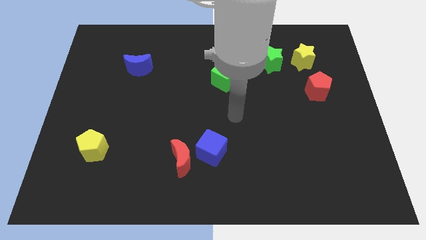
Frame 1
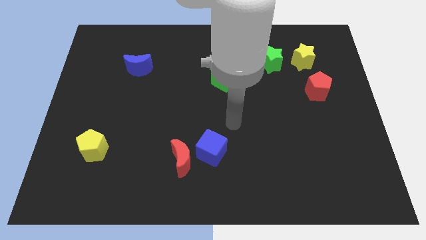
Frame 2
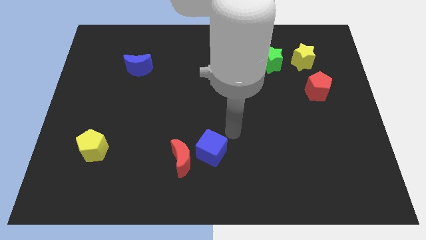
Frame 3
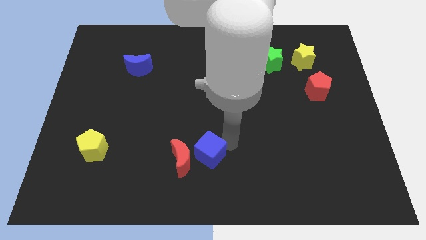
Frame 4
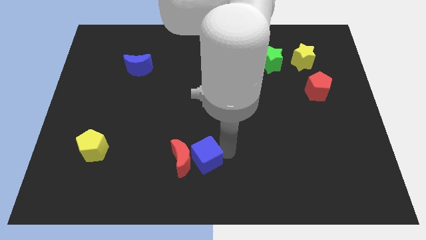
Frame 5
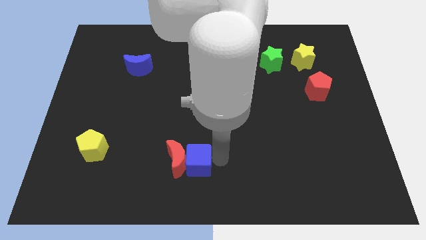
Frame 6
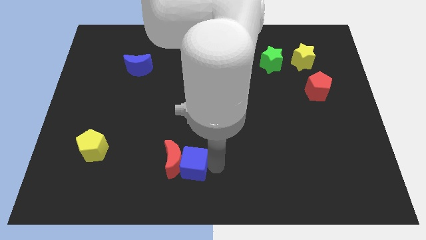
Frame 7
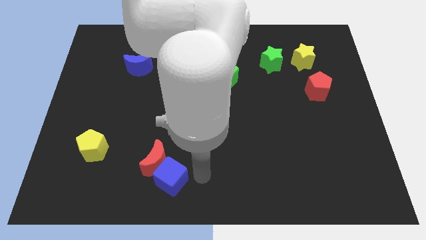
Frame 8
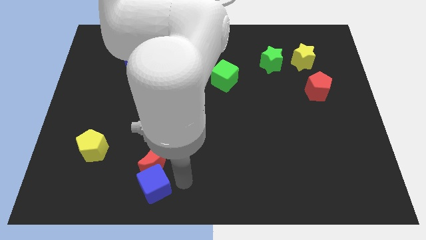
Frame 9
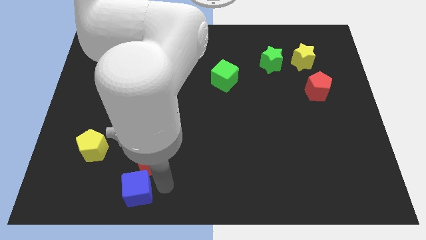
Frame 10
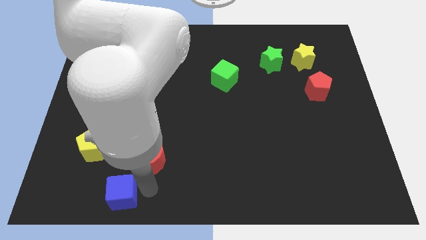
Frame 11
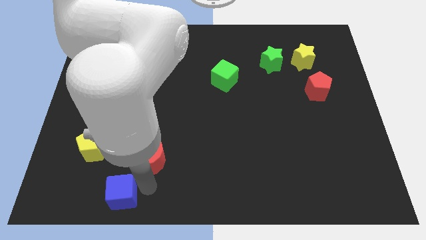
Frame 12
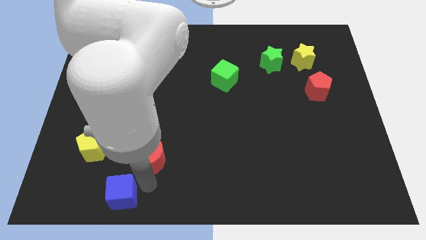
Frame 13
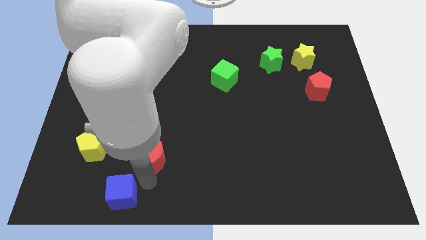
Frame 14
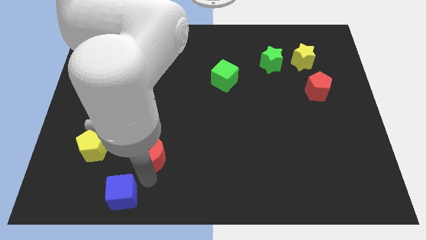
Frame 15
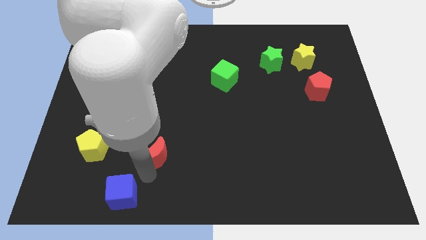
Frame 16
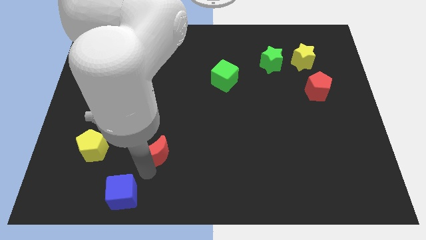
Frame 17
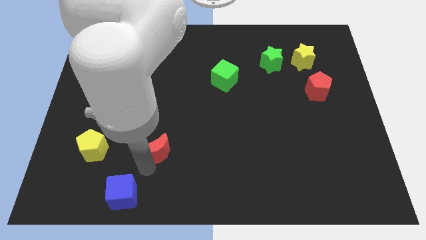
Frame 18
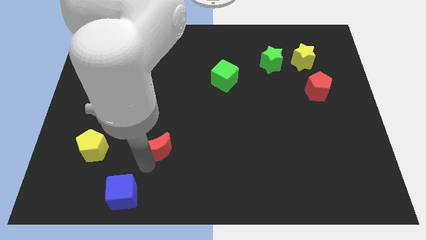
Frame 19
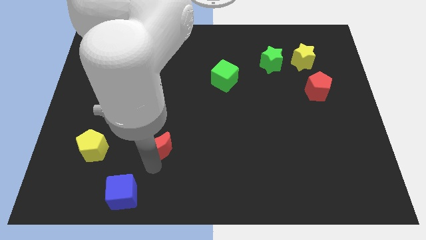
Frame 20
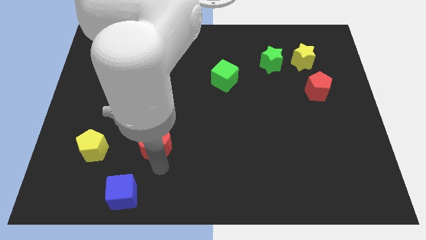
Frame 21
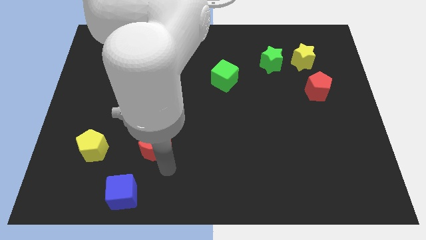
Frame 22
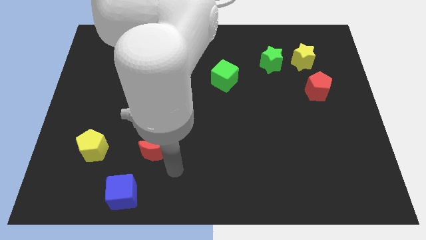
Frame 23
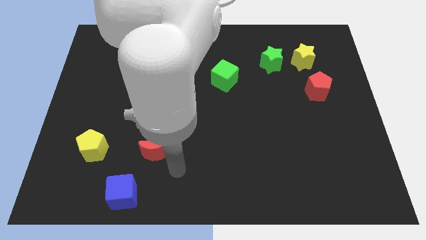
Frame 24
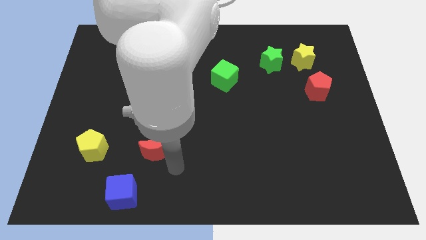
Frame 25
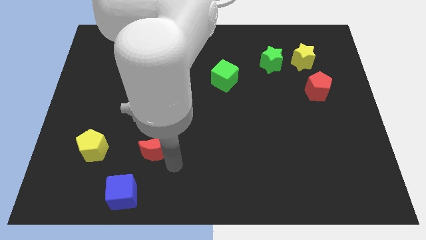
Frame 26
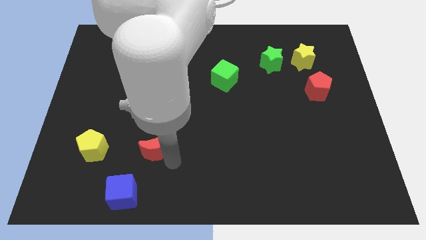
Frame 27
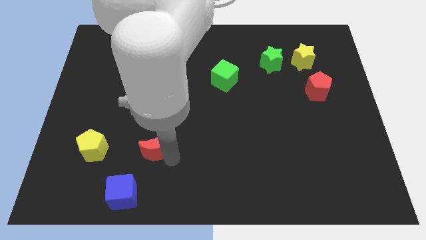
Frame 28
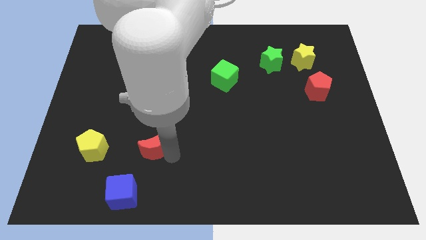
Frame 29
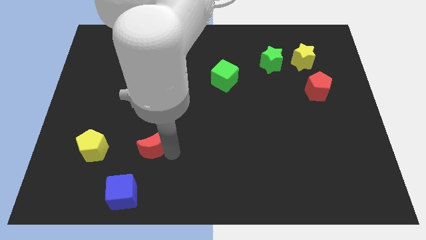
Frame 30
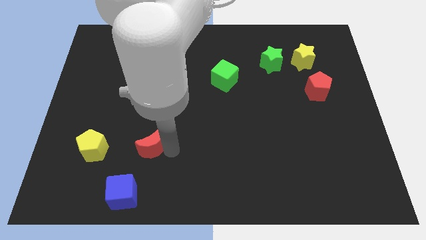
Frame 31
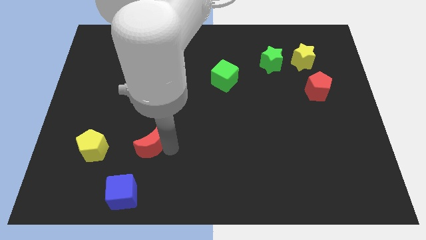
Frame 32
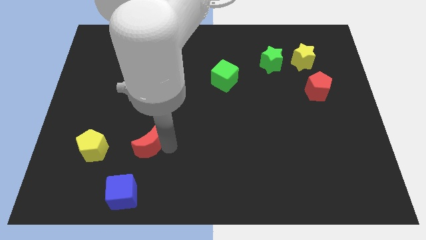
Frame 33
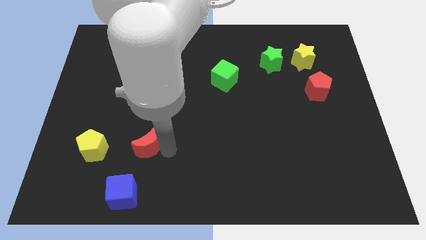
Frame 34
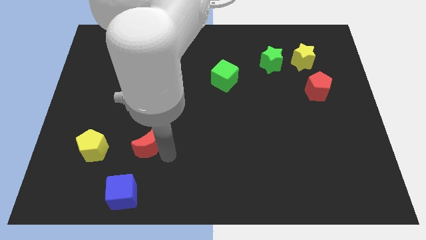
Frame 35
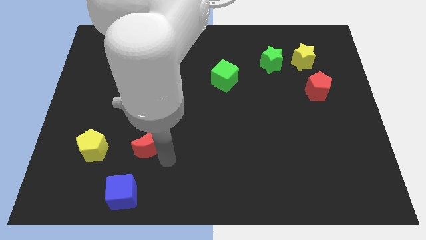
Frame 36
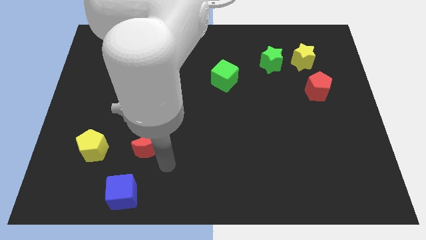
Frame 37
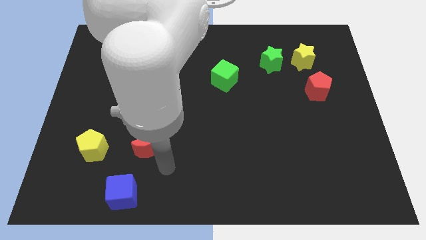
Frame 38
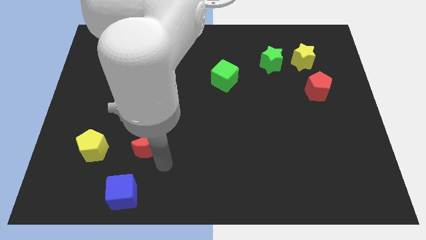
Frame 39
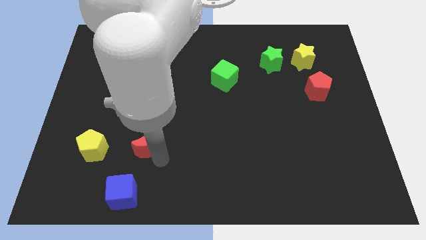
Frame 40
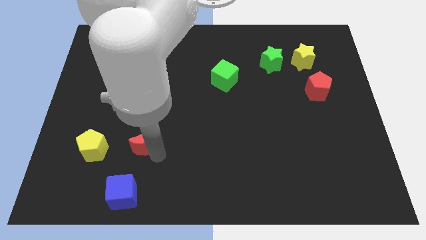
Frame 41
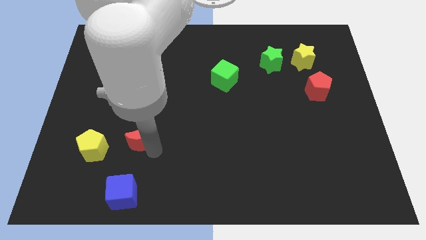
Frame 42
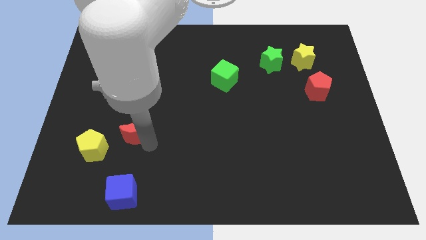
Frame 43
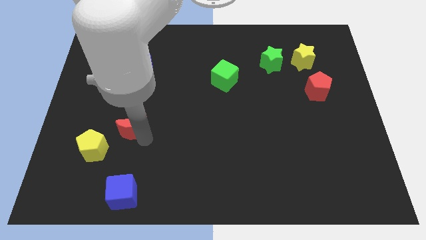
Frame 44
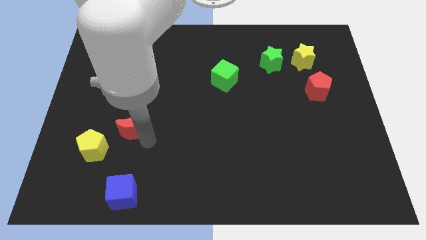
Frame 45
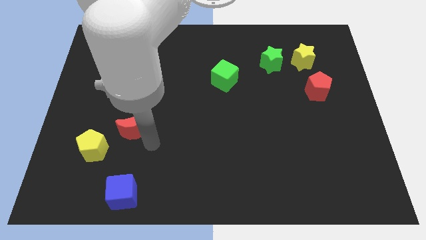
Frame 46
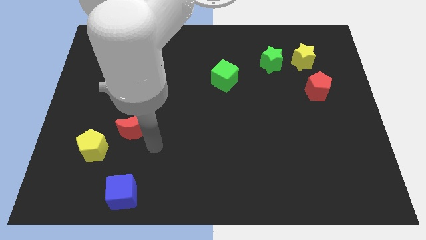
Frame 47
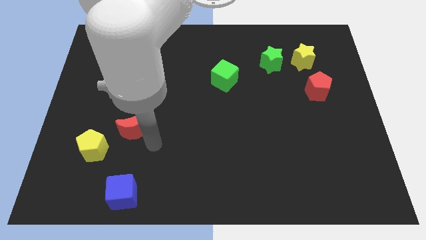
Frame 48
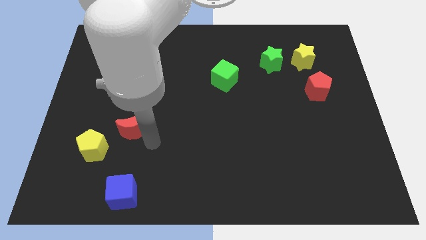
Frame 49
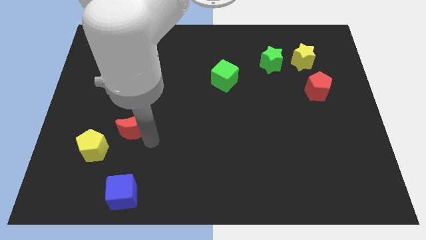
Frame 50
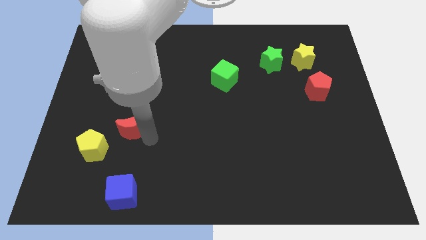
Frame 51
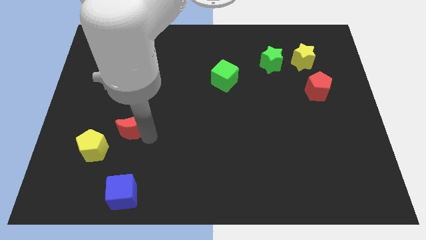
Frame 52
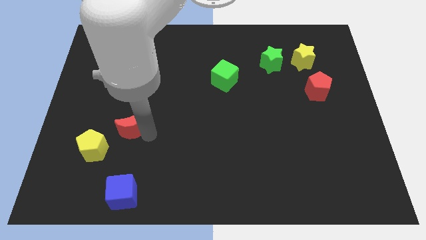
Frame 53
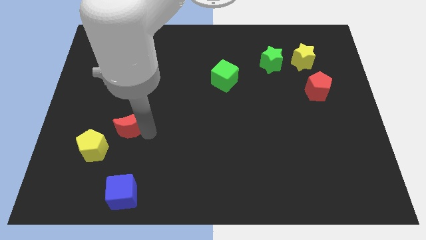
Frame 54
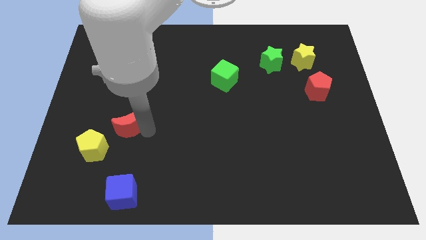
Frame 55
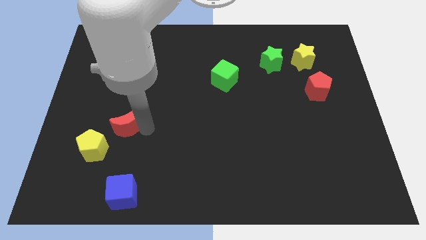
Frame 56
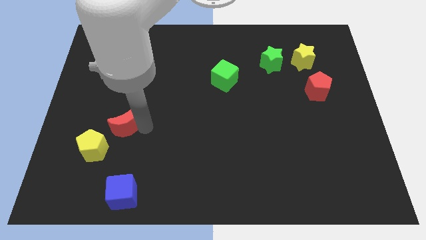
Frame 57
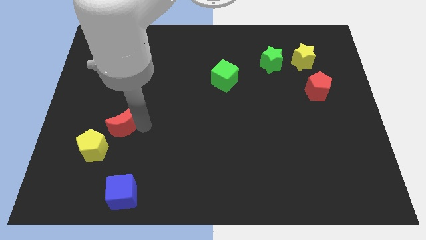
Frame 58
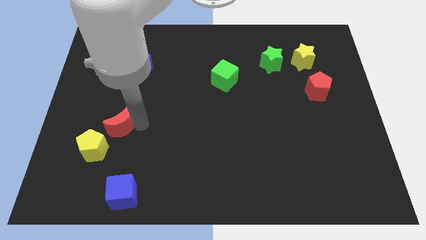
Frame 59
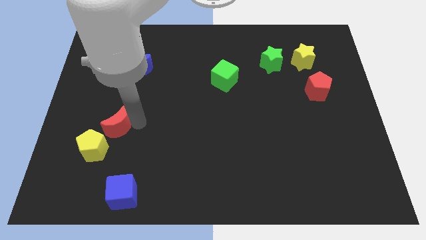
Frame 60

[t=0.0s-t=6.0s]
move the red moon to the top of the yellow pentagon

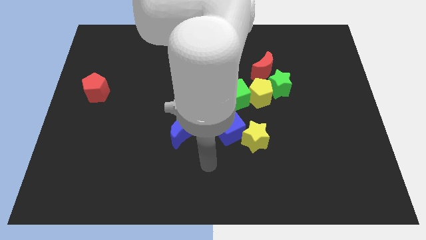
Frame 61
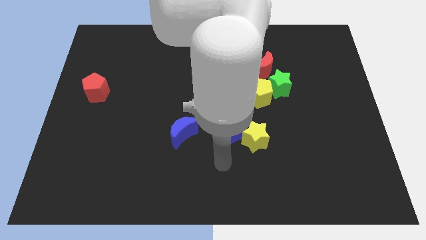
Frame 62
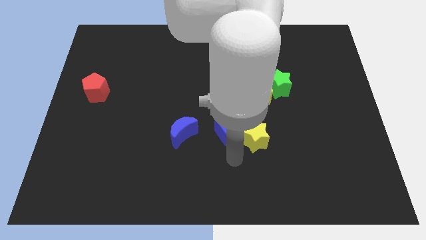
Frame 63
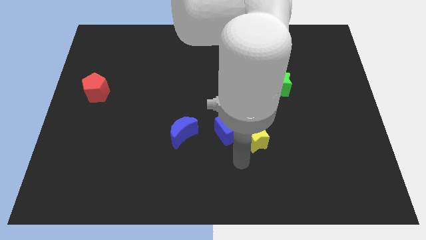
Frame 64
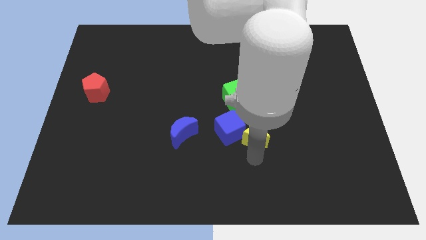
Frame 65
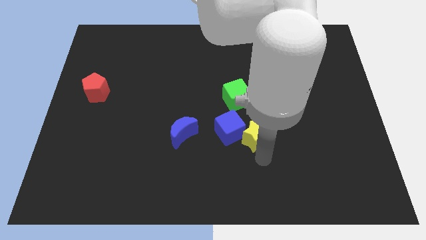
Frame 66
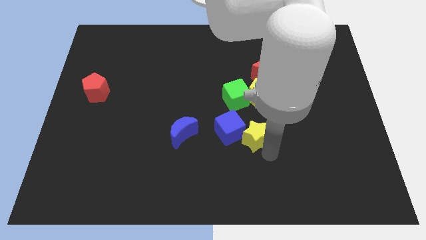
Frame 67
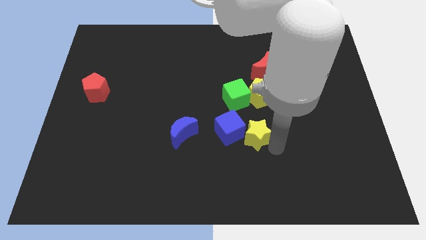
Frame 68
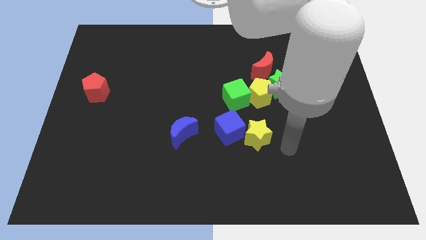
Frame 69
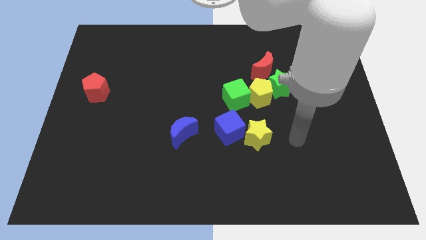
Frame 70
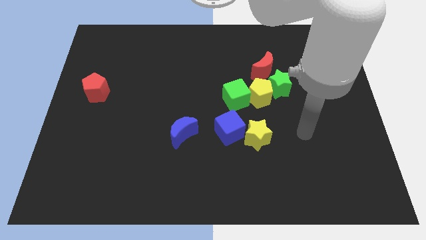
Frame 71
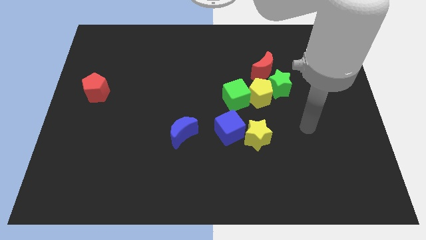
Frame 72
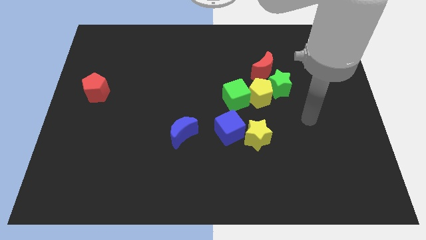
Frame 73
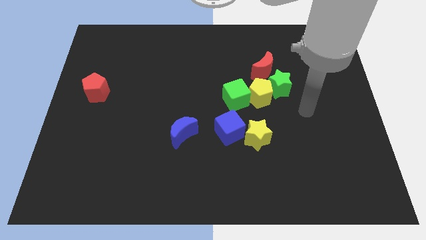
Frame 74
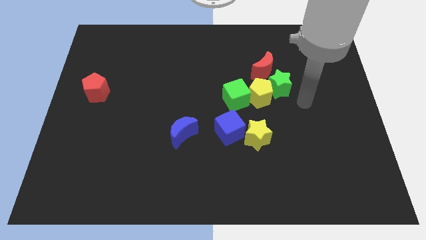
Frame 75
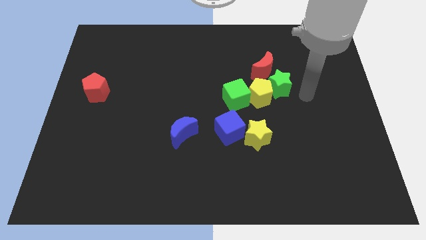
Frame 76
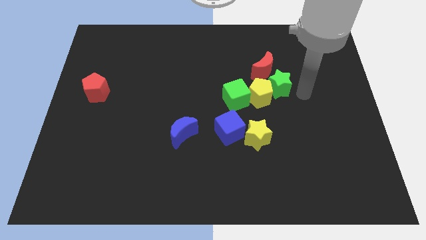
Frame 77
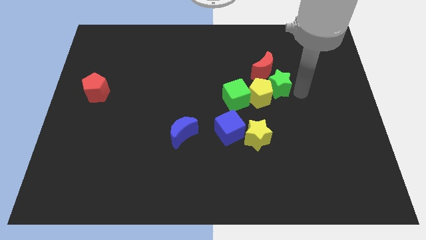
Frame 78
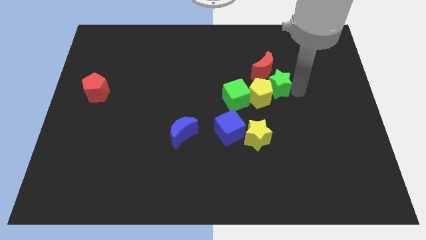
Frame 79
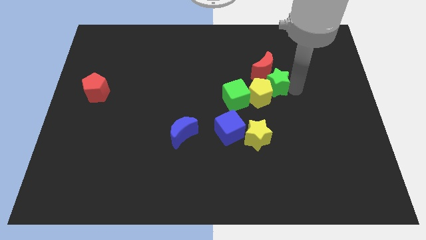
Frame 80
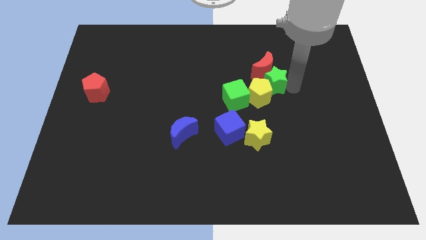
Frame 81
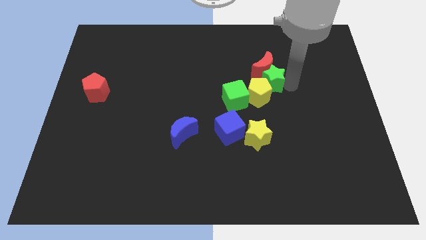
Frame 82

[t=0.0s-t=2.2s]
put the green star to the bottom left side of the red moon
